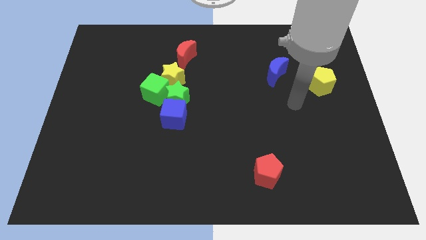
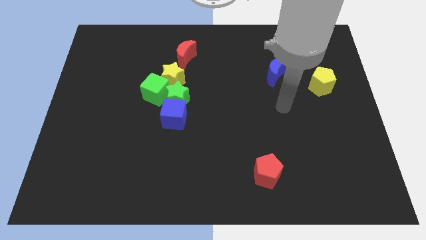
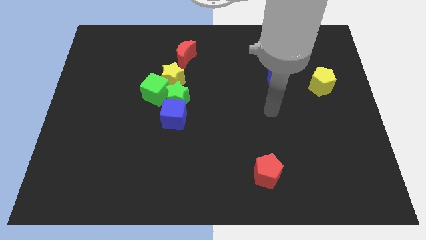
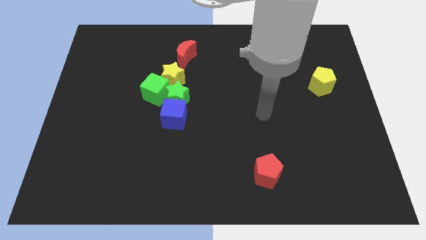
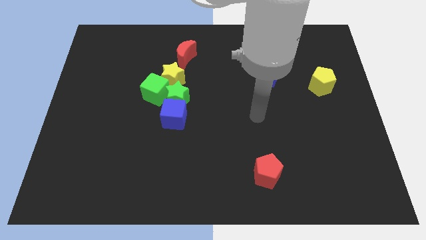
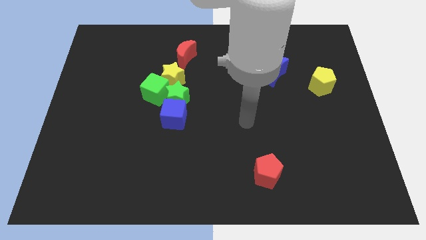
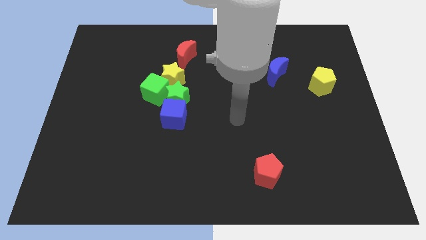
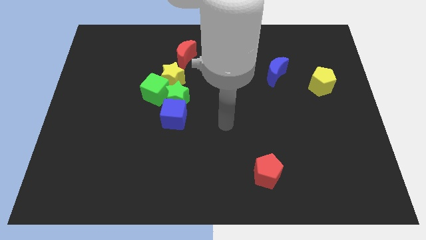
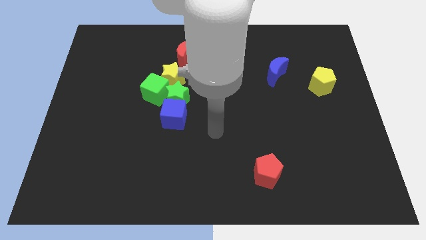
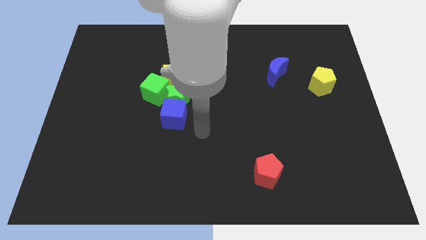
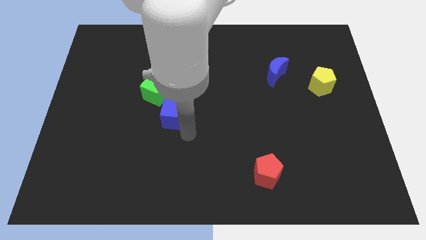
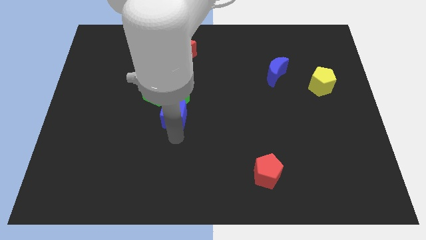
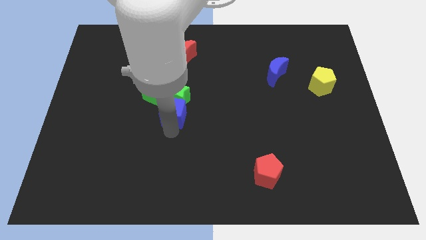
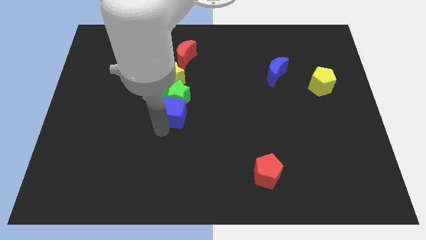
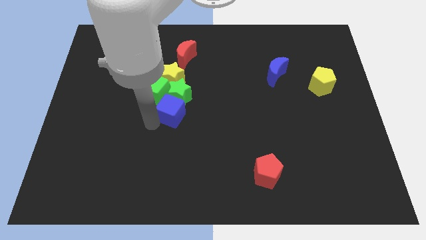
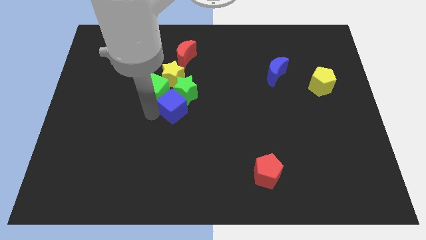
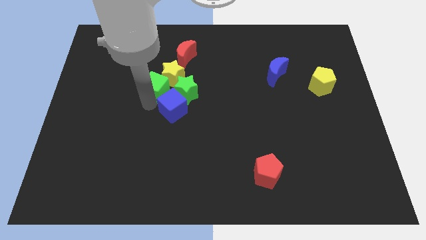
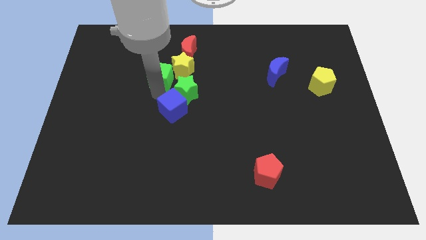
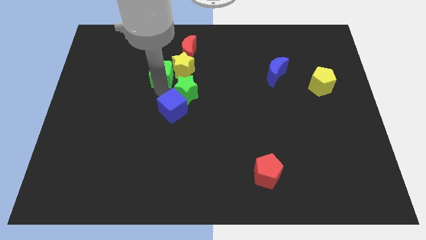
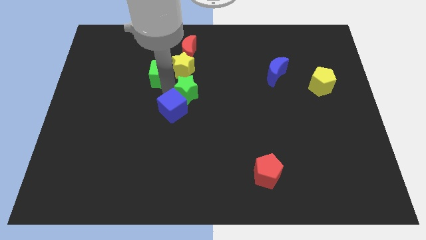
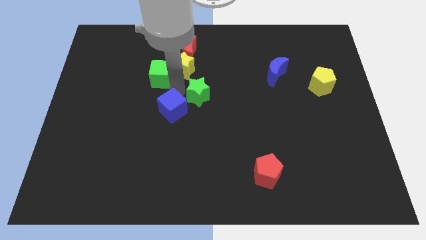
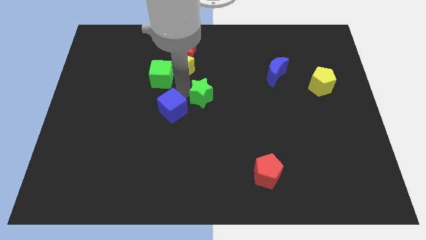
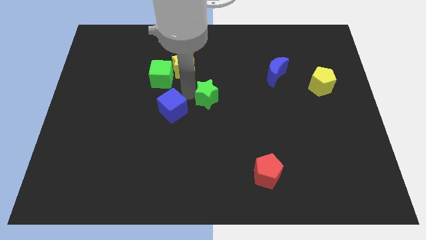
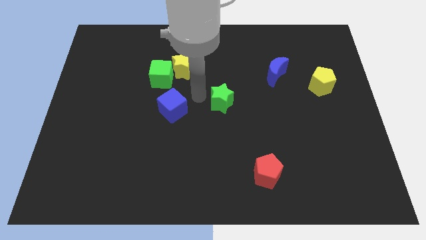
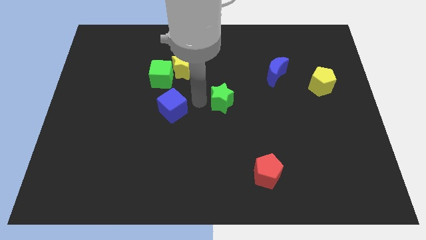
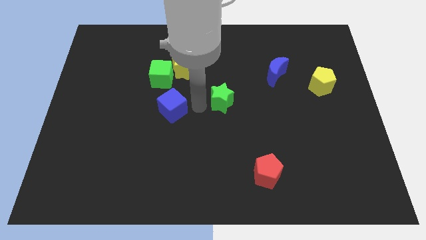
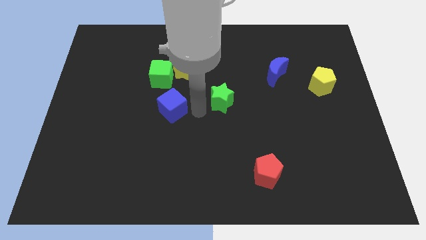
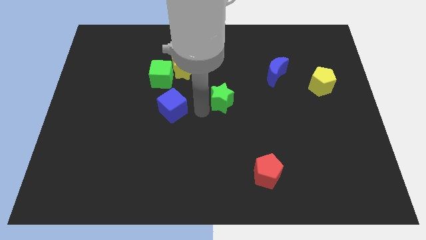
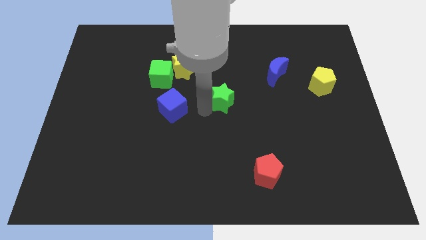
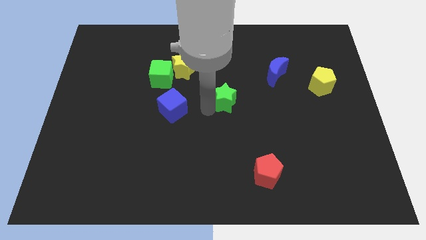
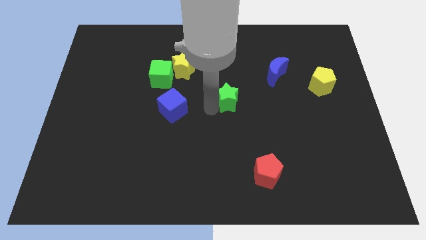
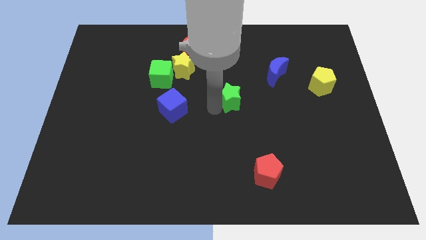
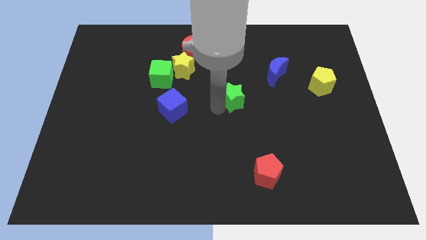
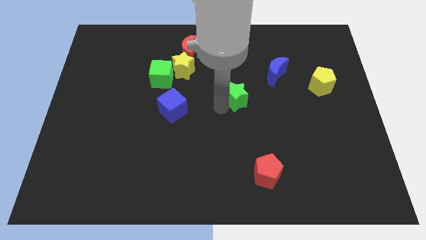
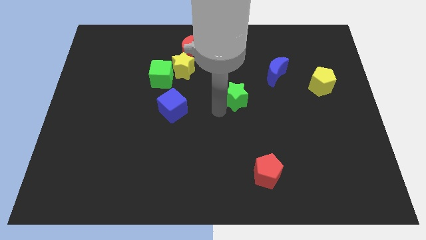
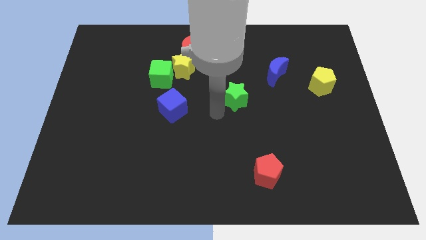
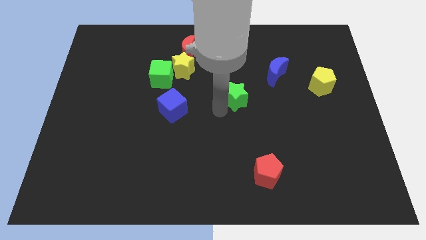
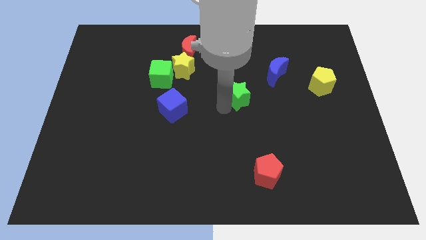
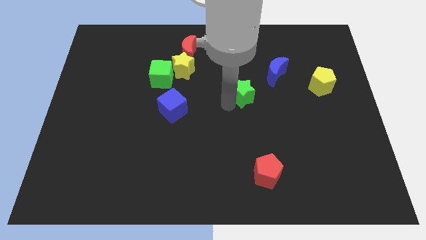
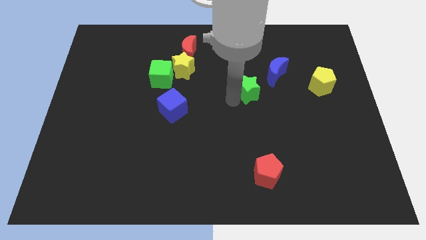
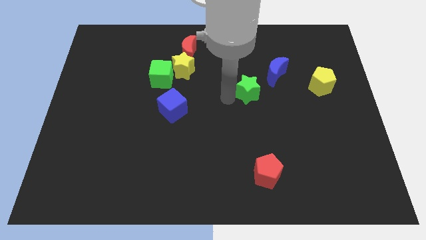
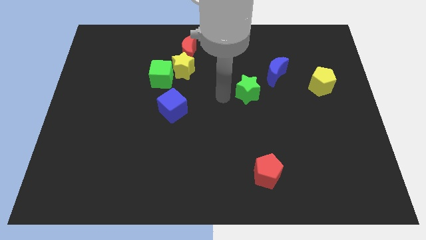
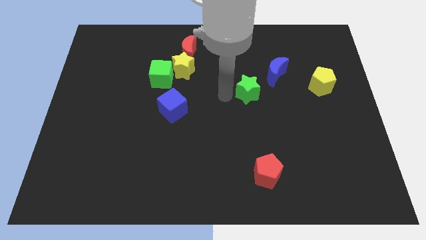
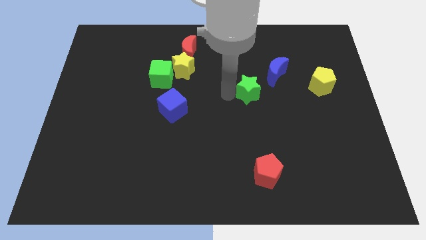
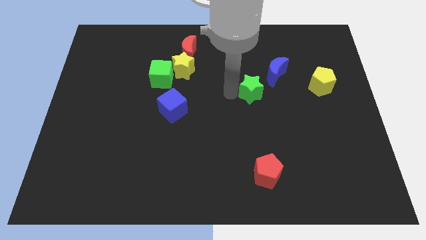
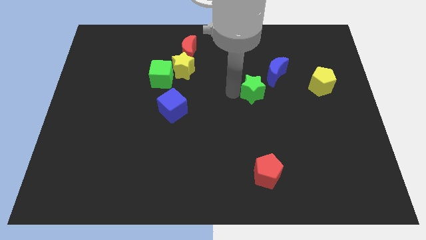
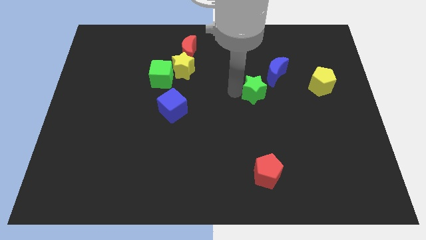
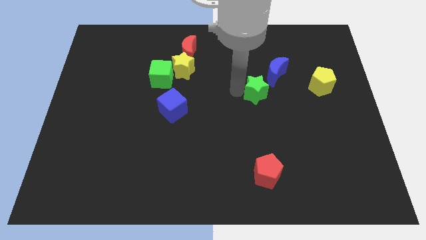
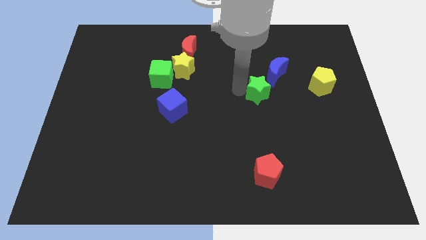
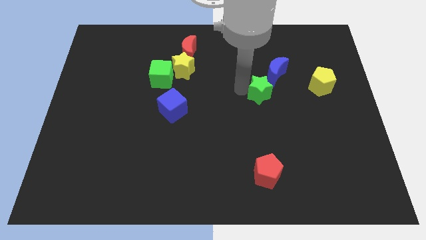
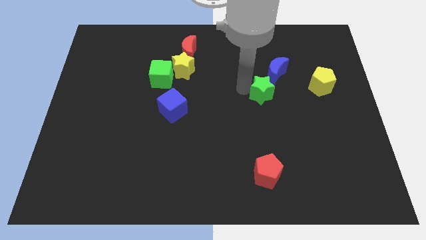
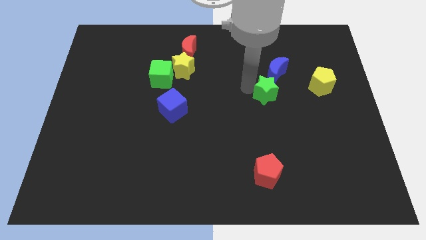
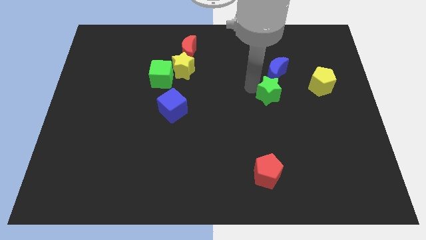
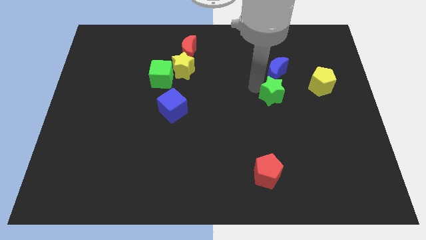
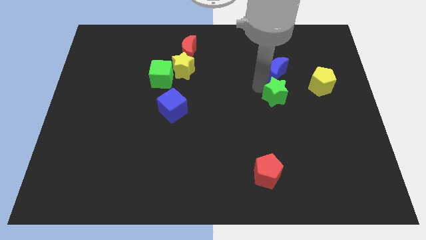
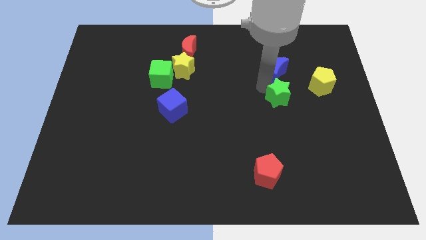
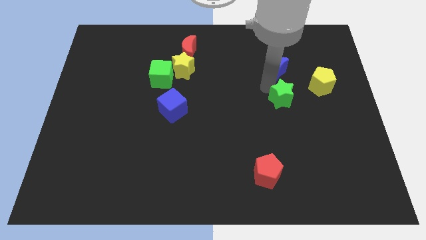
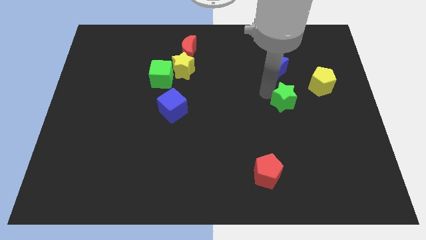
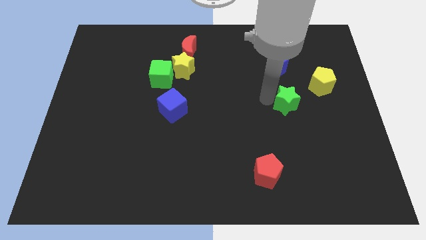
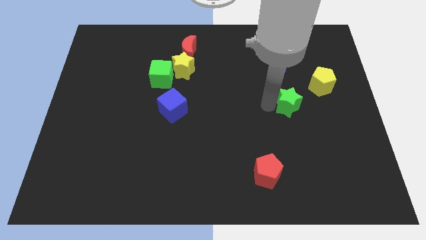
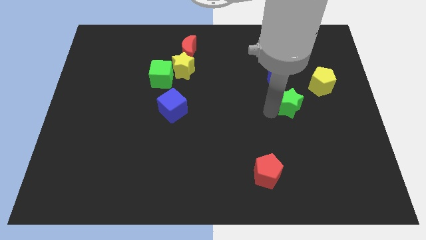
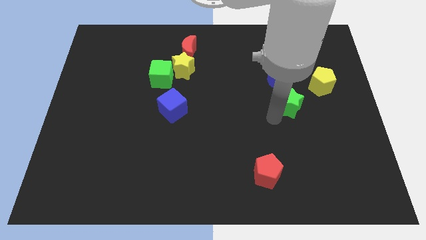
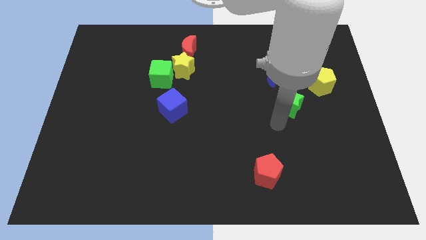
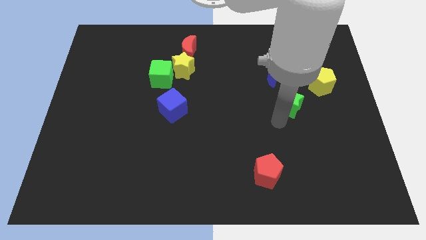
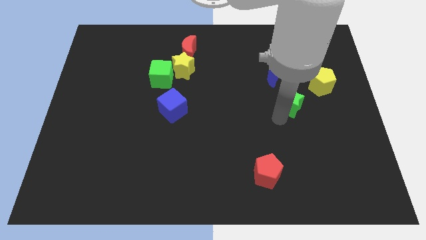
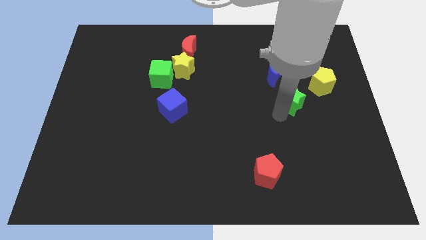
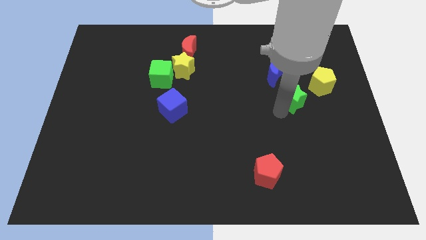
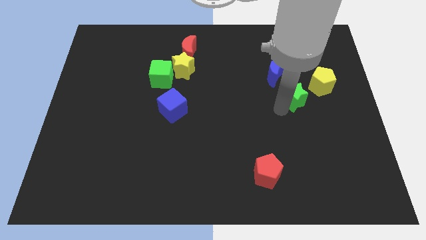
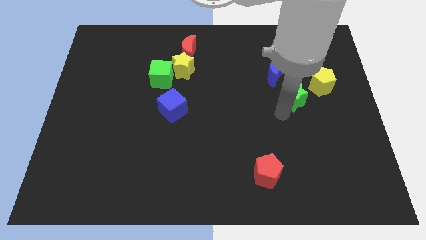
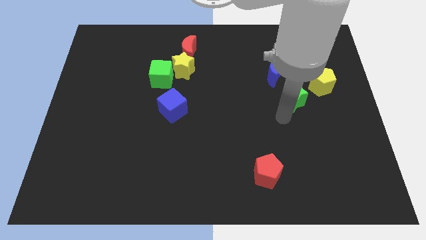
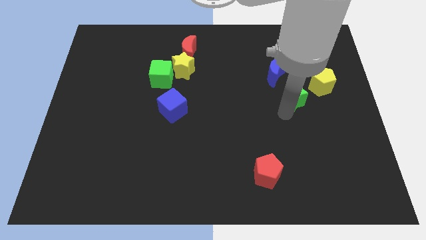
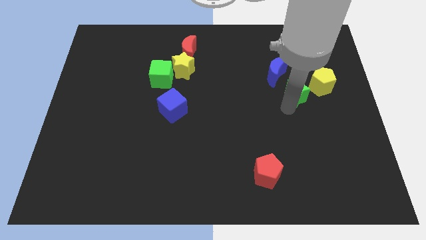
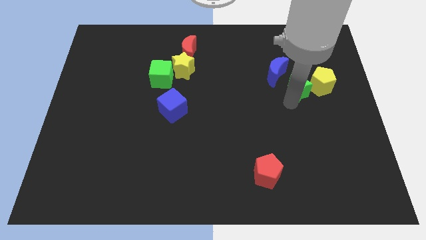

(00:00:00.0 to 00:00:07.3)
move the green star towards the yellow pentagon

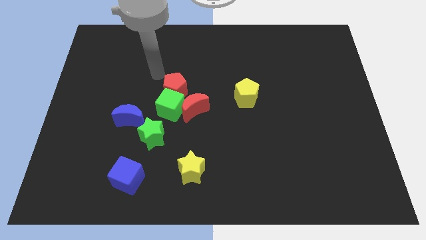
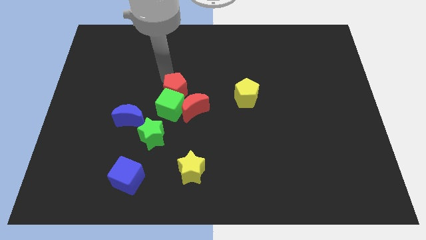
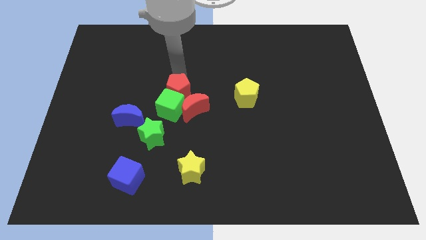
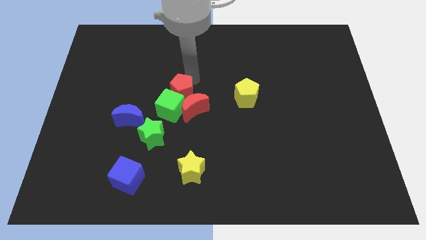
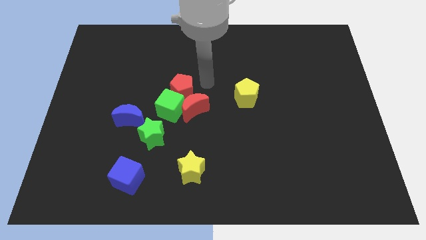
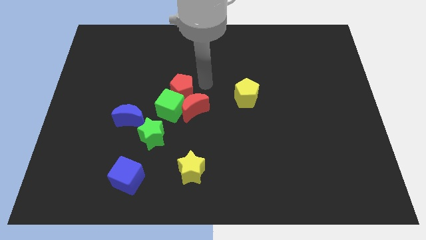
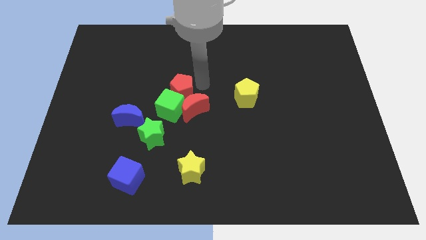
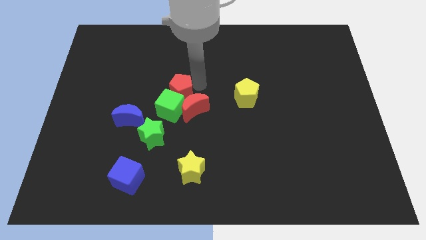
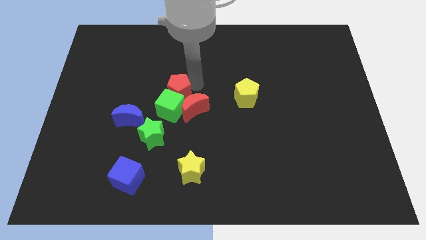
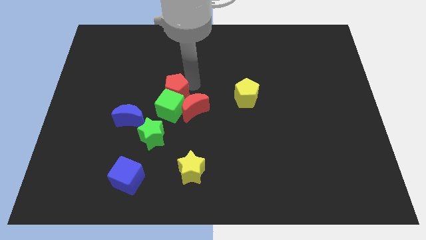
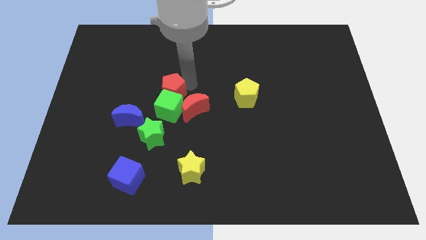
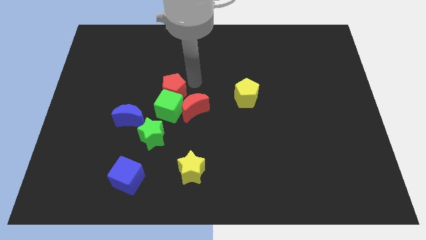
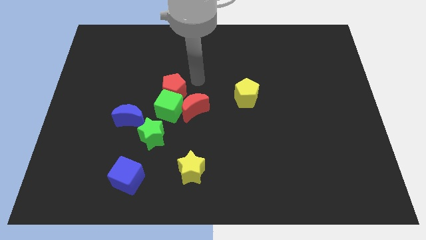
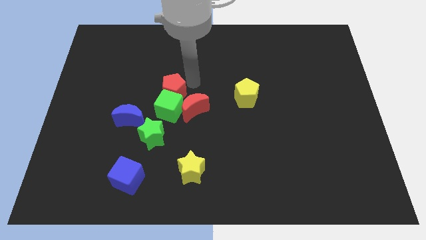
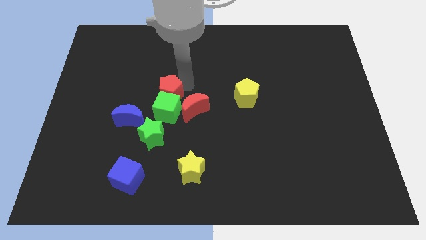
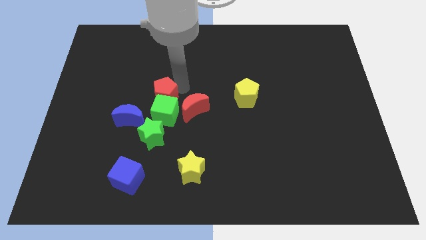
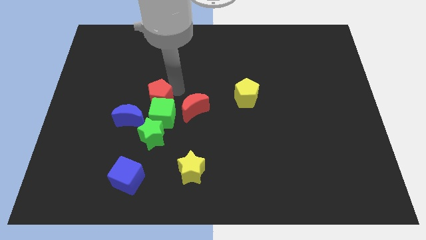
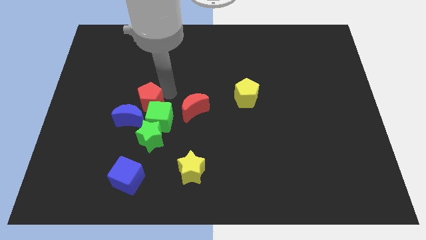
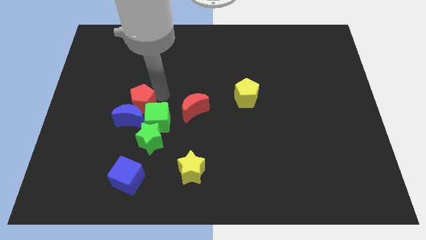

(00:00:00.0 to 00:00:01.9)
move the red pentagon to the blue moon
